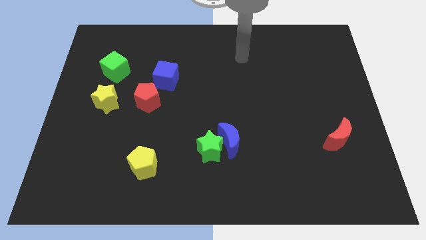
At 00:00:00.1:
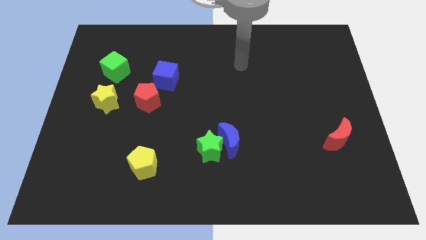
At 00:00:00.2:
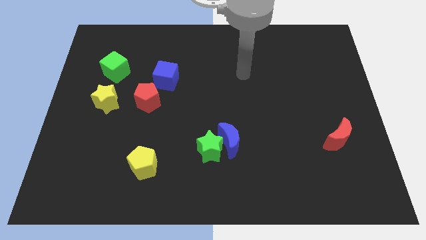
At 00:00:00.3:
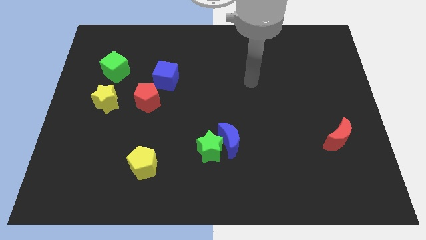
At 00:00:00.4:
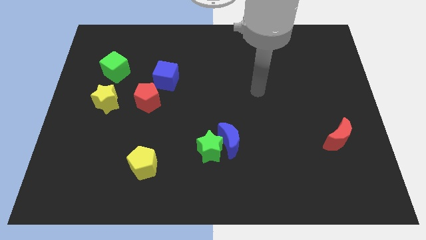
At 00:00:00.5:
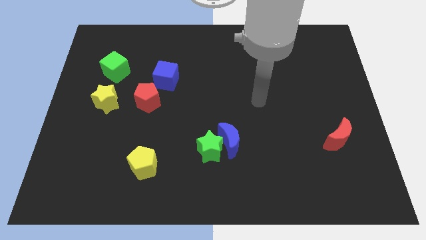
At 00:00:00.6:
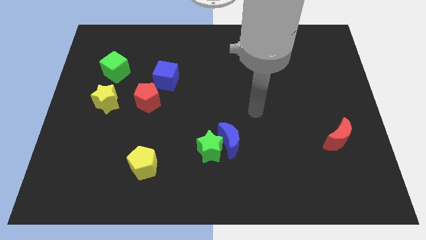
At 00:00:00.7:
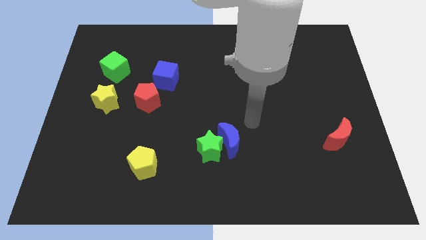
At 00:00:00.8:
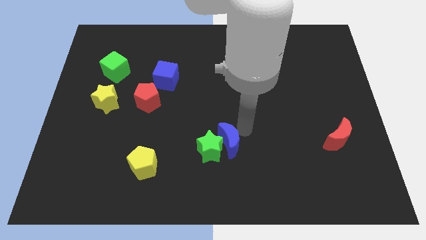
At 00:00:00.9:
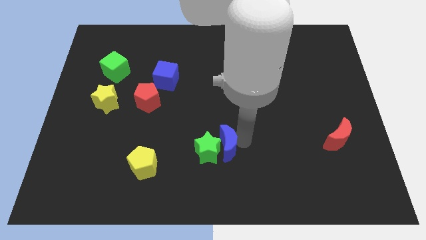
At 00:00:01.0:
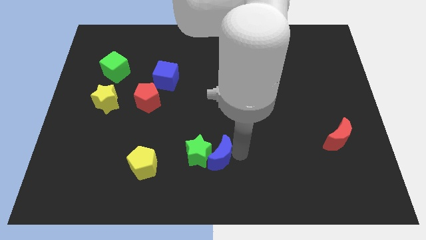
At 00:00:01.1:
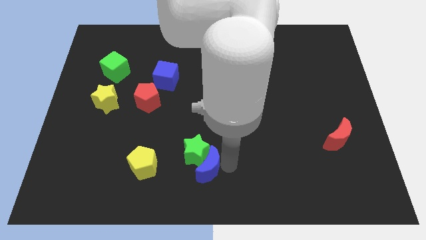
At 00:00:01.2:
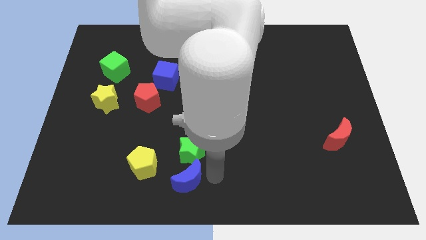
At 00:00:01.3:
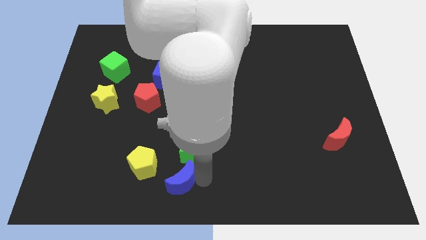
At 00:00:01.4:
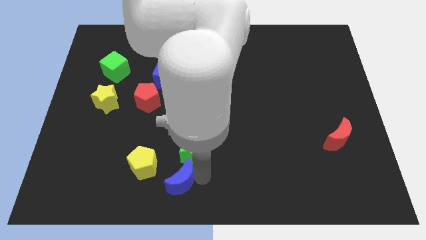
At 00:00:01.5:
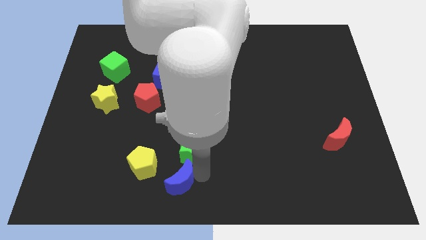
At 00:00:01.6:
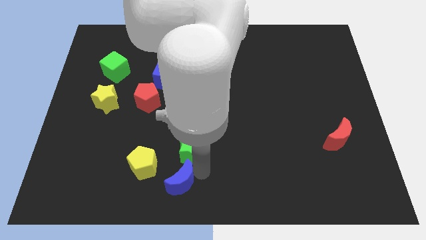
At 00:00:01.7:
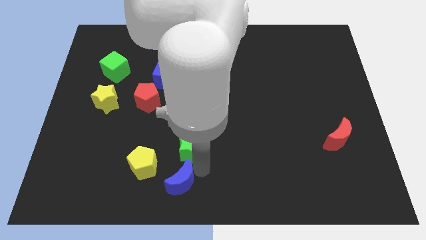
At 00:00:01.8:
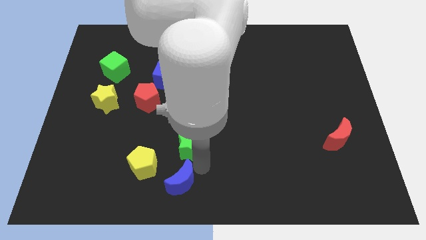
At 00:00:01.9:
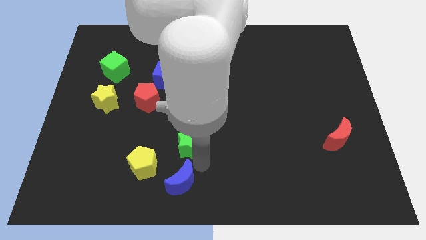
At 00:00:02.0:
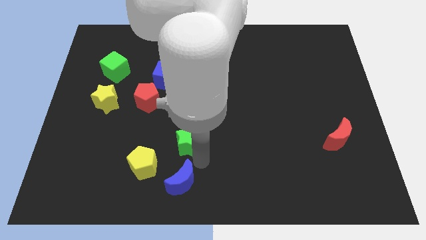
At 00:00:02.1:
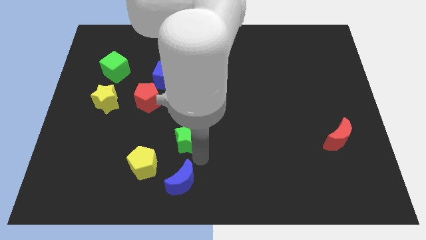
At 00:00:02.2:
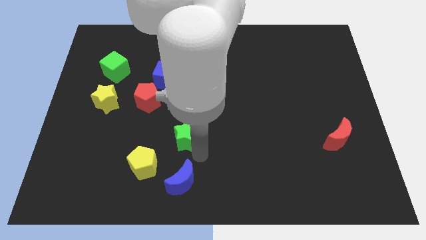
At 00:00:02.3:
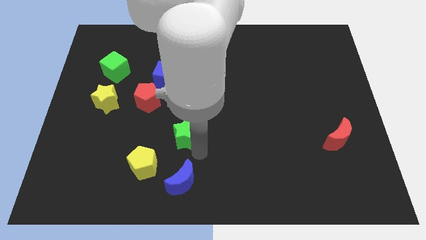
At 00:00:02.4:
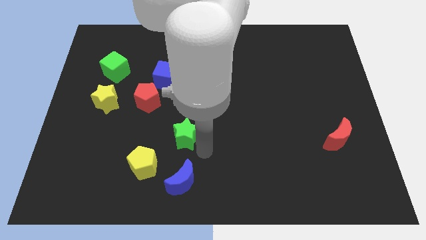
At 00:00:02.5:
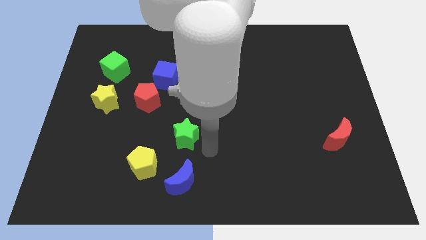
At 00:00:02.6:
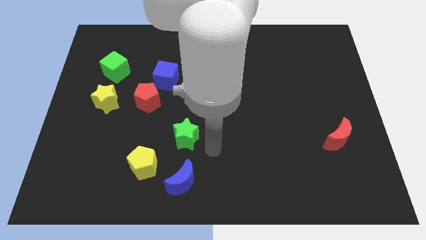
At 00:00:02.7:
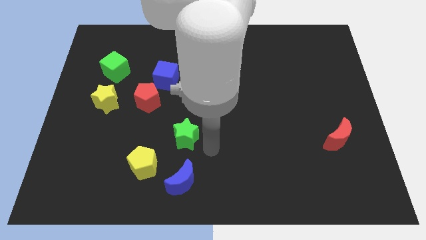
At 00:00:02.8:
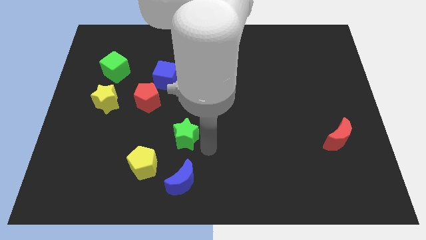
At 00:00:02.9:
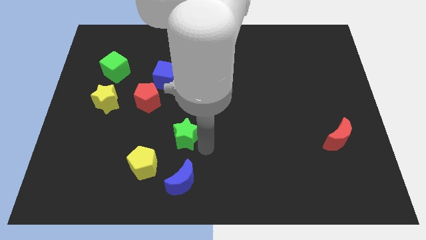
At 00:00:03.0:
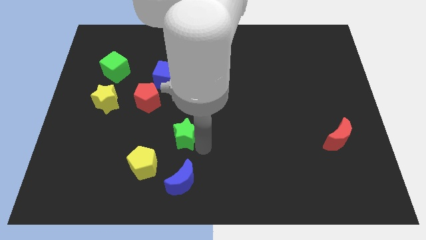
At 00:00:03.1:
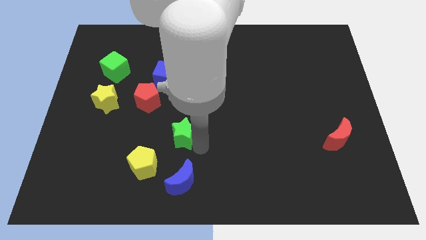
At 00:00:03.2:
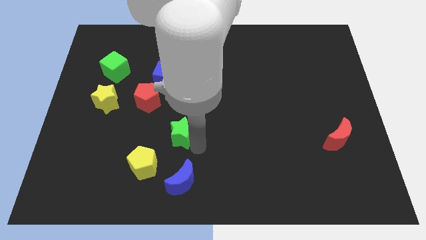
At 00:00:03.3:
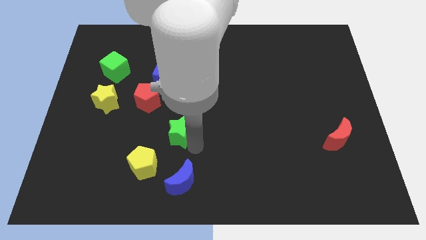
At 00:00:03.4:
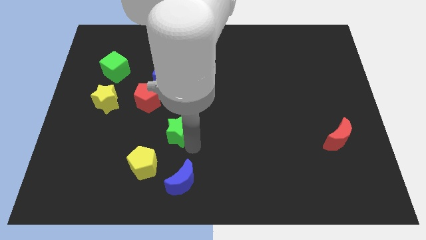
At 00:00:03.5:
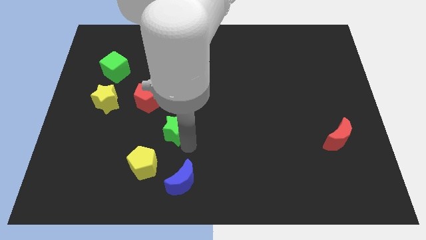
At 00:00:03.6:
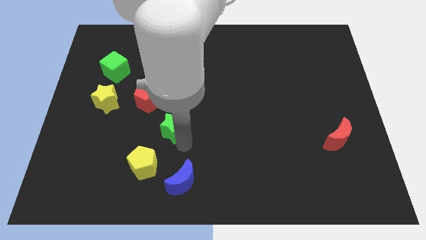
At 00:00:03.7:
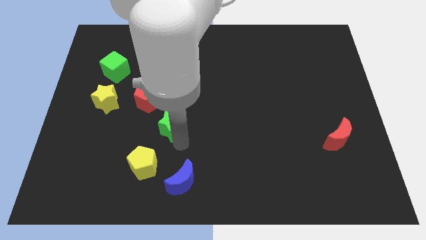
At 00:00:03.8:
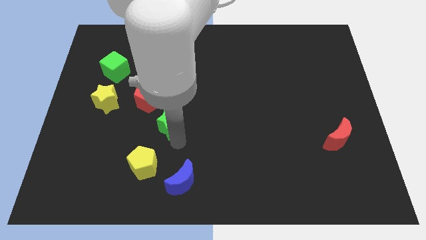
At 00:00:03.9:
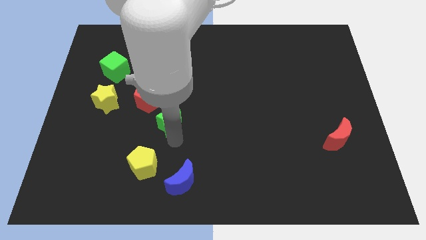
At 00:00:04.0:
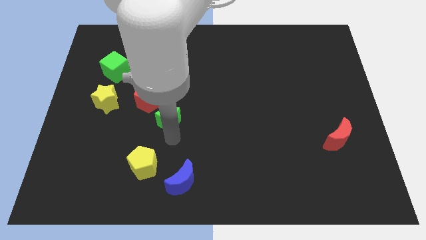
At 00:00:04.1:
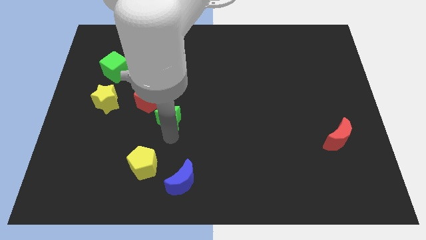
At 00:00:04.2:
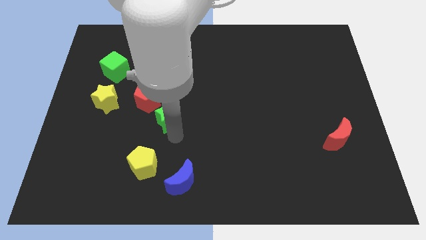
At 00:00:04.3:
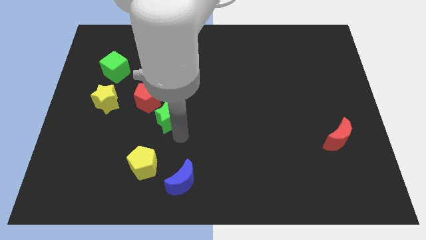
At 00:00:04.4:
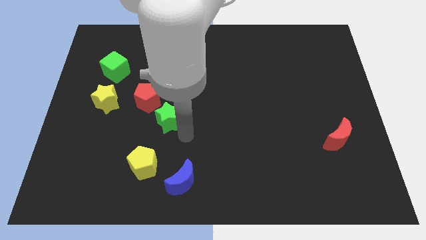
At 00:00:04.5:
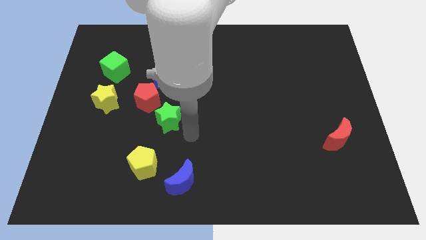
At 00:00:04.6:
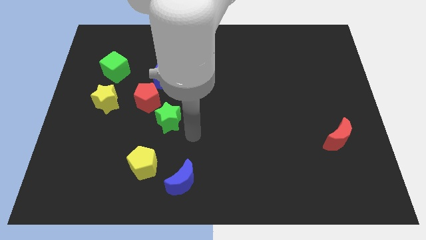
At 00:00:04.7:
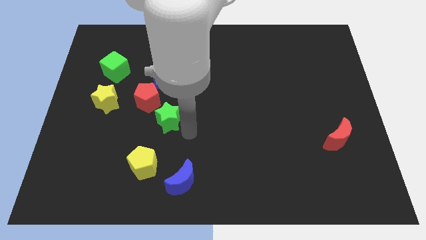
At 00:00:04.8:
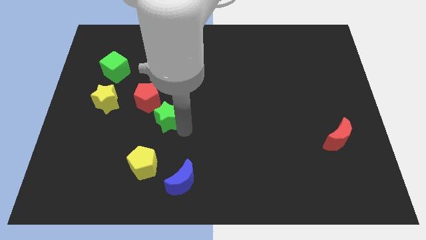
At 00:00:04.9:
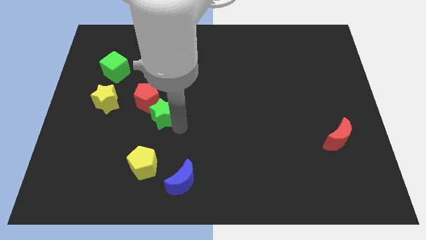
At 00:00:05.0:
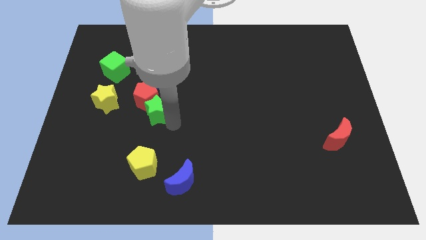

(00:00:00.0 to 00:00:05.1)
move the green star close to the red pentagon

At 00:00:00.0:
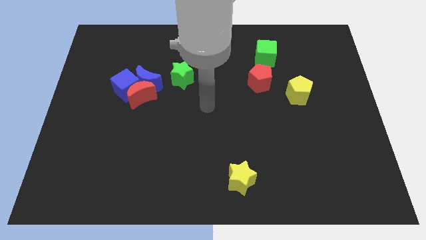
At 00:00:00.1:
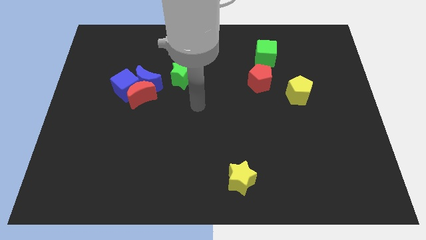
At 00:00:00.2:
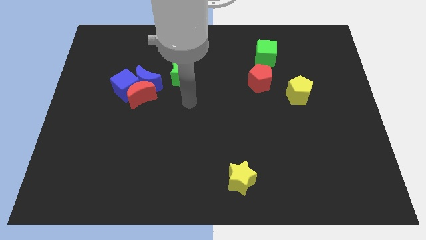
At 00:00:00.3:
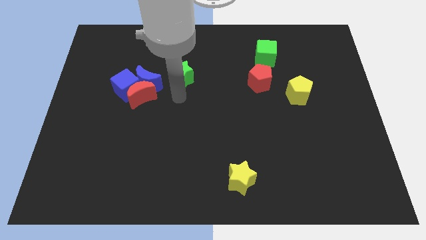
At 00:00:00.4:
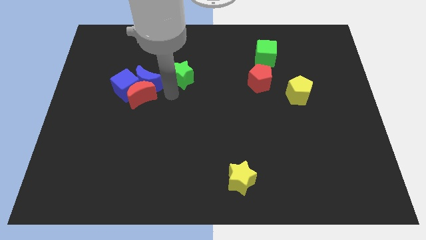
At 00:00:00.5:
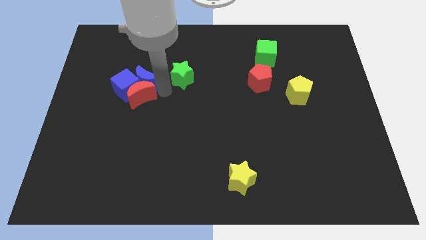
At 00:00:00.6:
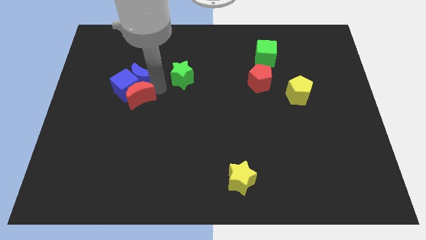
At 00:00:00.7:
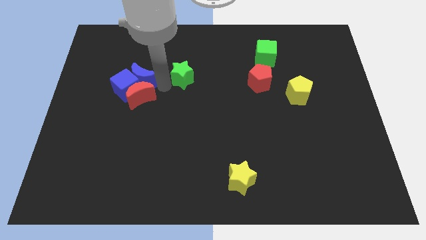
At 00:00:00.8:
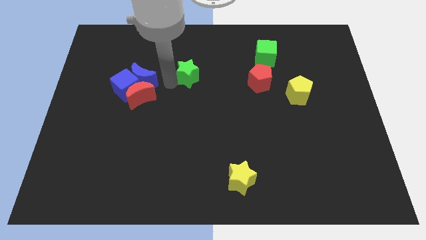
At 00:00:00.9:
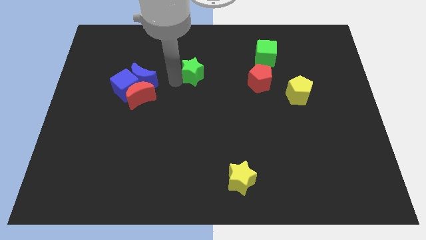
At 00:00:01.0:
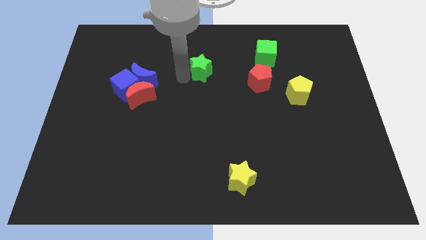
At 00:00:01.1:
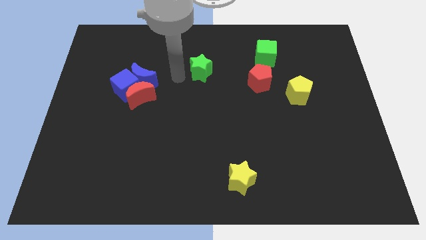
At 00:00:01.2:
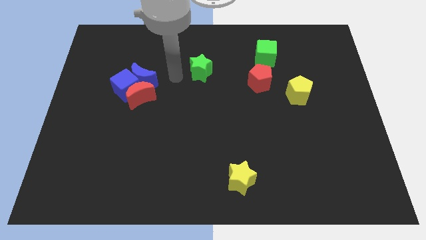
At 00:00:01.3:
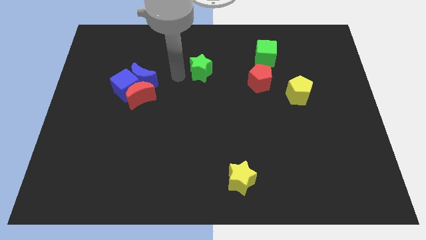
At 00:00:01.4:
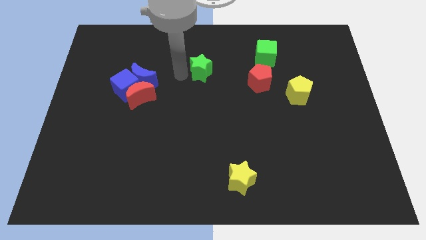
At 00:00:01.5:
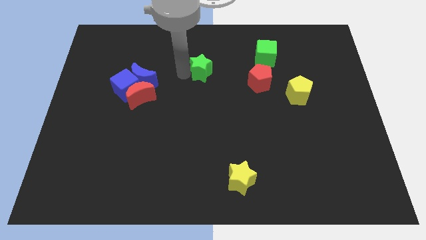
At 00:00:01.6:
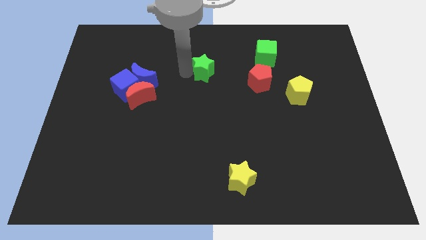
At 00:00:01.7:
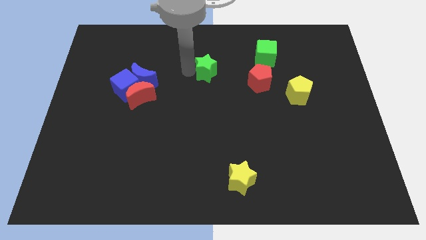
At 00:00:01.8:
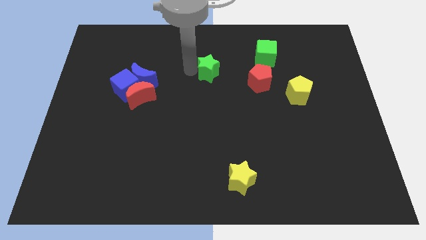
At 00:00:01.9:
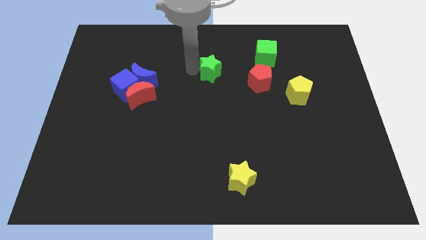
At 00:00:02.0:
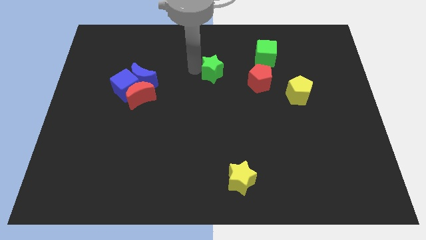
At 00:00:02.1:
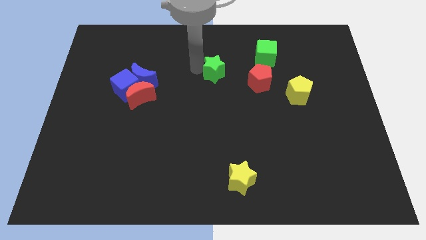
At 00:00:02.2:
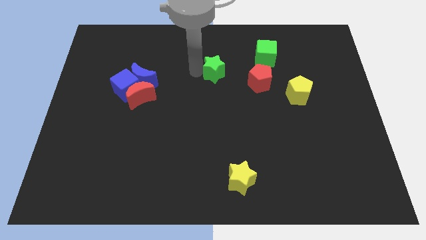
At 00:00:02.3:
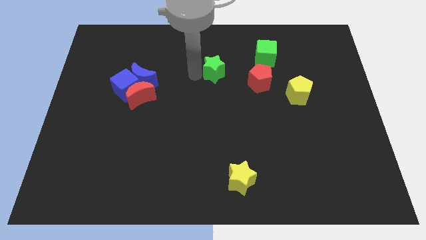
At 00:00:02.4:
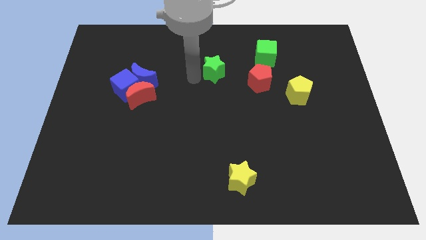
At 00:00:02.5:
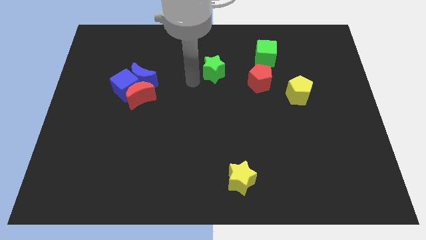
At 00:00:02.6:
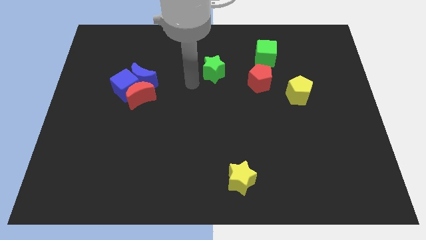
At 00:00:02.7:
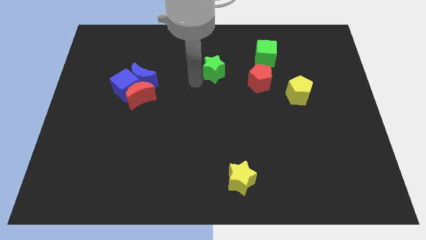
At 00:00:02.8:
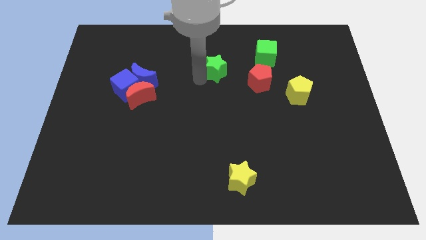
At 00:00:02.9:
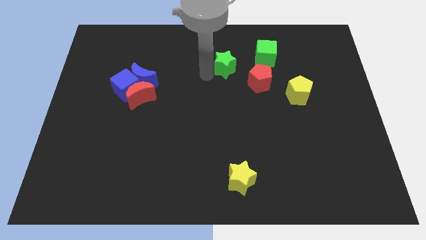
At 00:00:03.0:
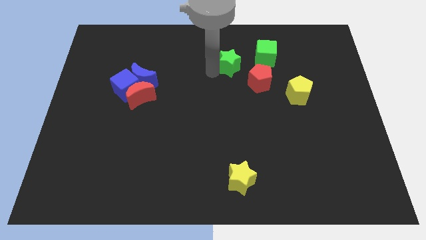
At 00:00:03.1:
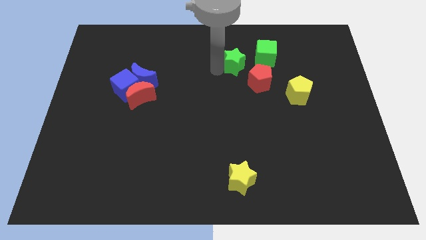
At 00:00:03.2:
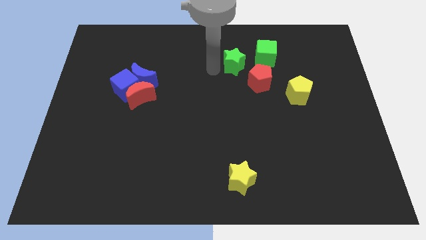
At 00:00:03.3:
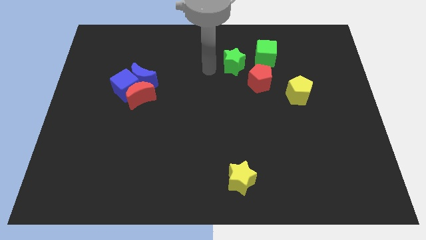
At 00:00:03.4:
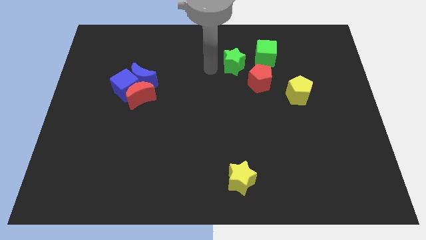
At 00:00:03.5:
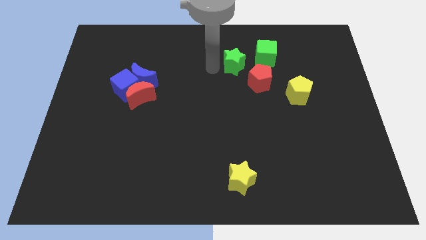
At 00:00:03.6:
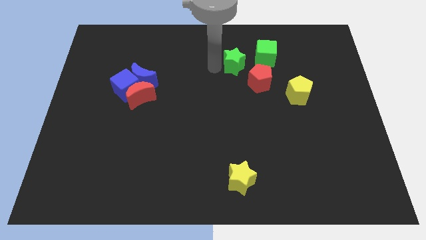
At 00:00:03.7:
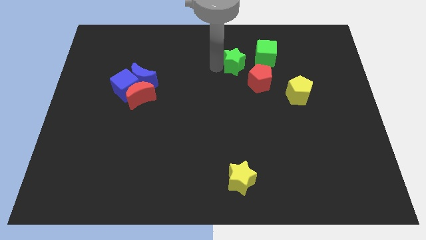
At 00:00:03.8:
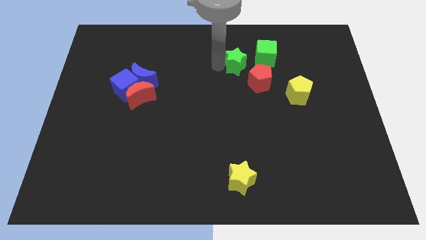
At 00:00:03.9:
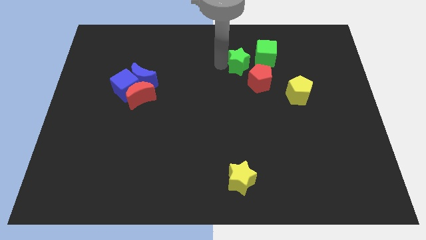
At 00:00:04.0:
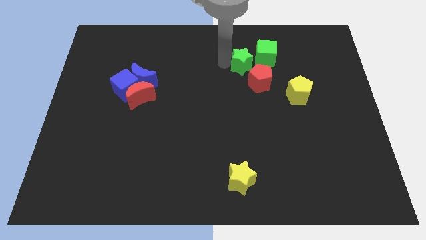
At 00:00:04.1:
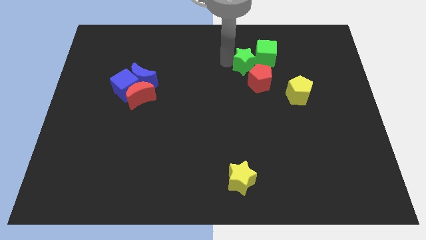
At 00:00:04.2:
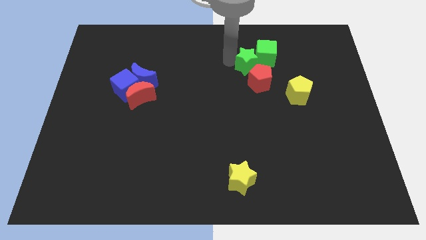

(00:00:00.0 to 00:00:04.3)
slide the green star towards the green cube
